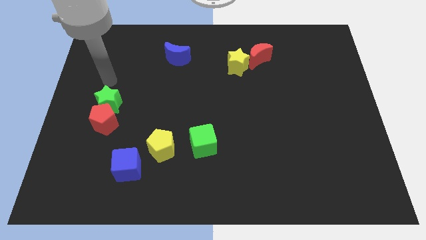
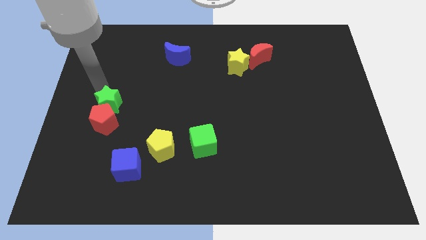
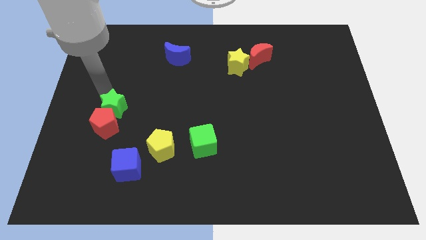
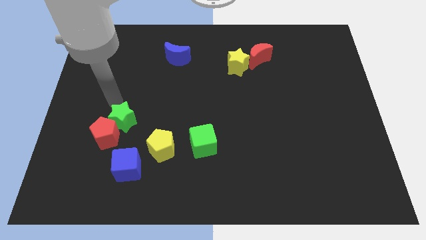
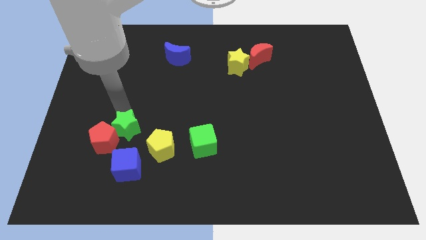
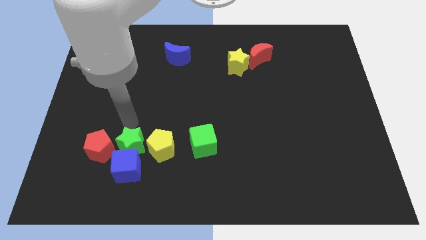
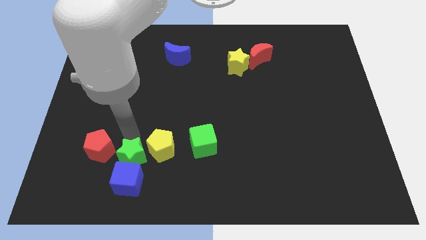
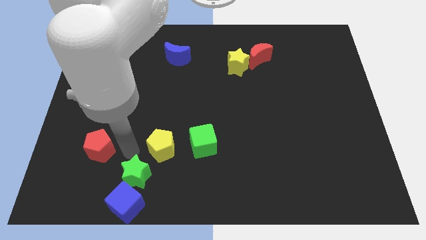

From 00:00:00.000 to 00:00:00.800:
move the red pentagon away from the green star

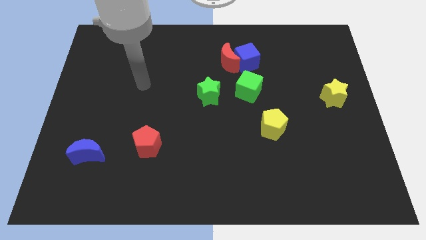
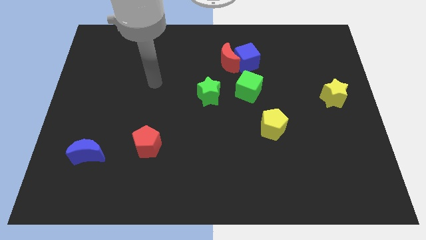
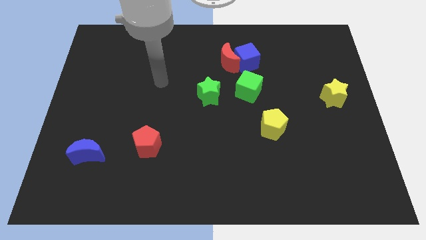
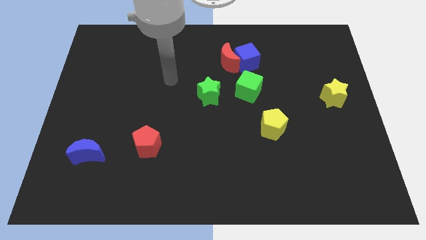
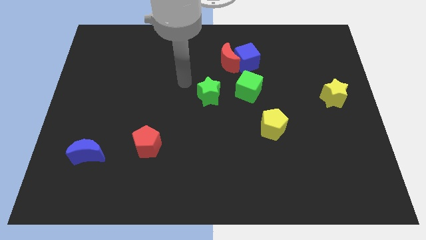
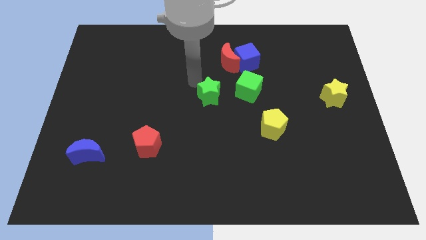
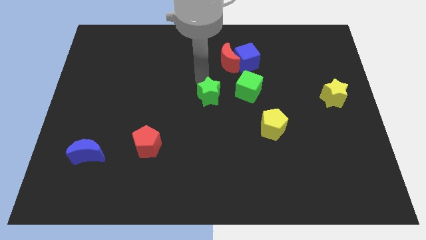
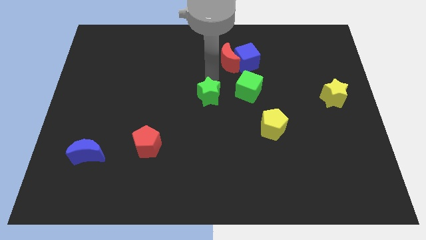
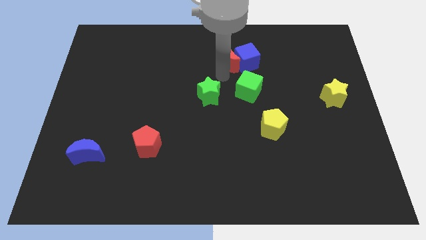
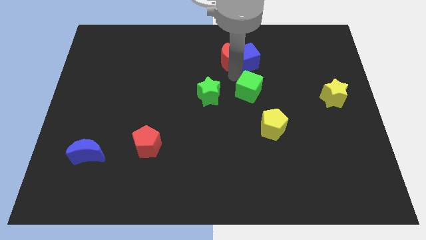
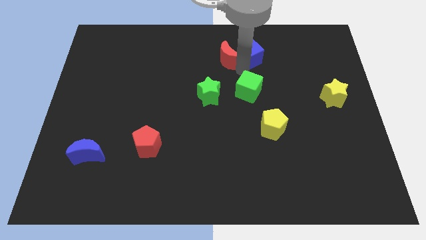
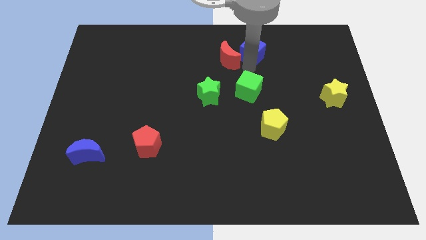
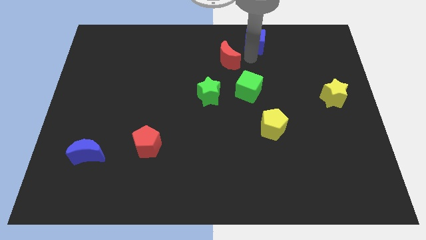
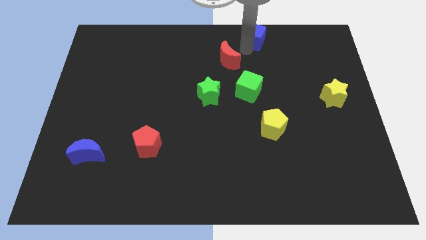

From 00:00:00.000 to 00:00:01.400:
pull the red moon apart from the blue cube

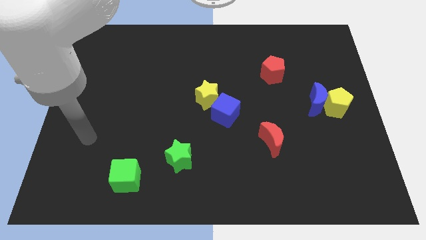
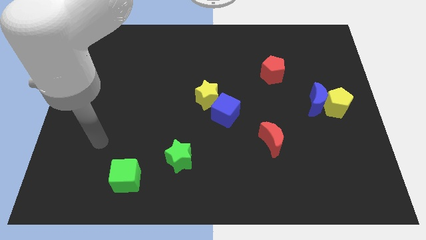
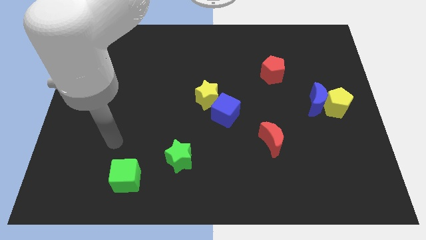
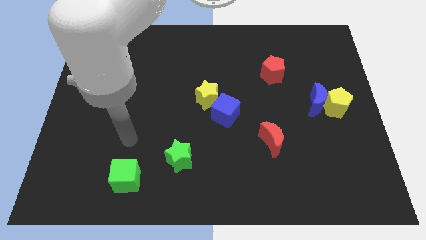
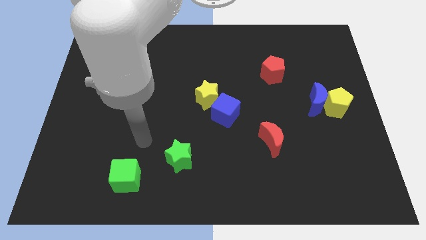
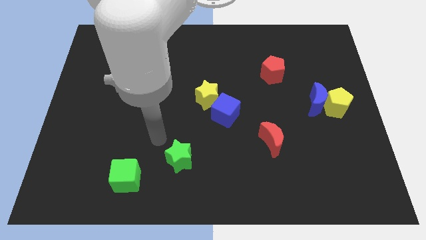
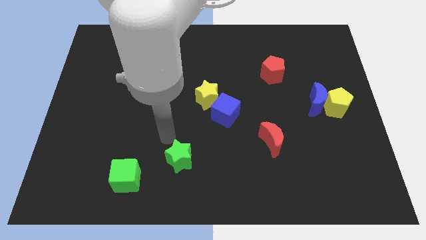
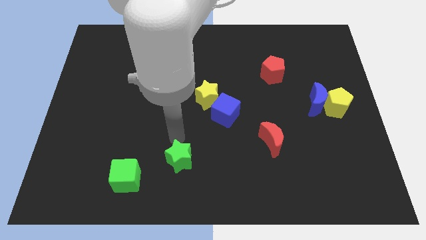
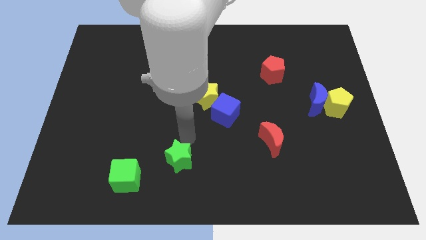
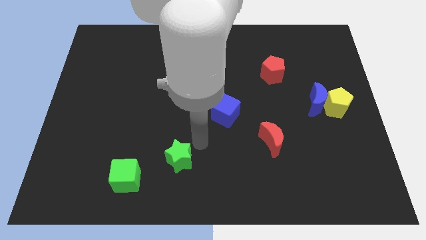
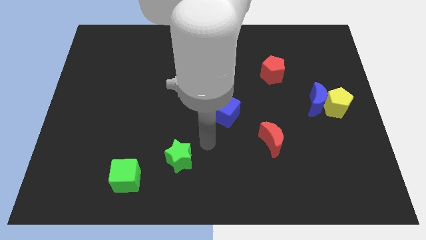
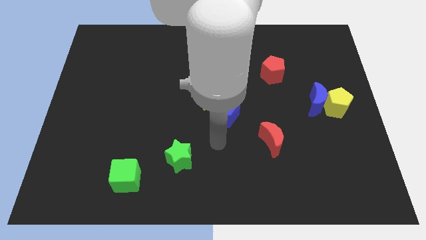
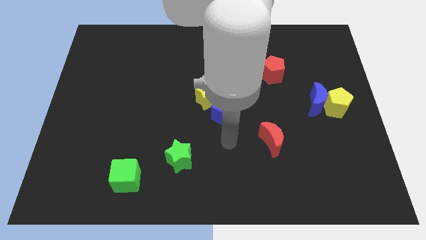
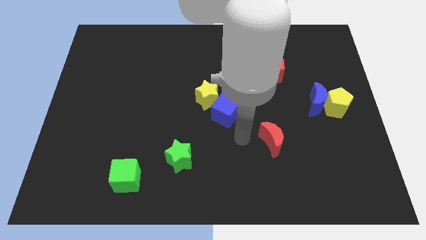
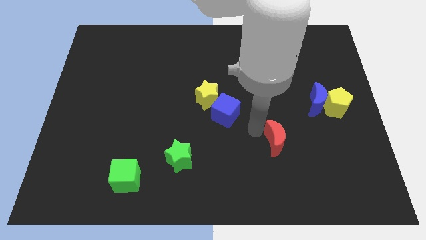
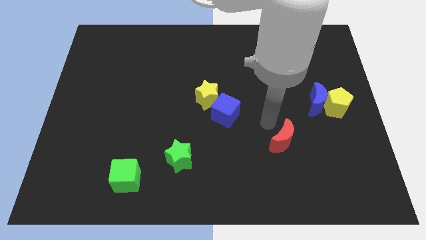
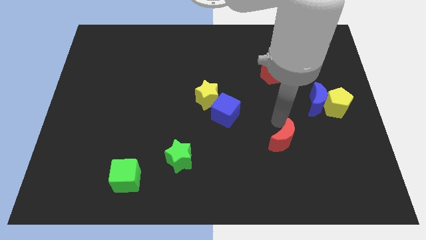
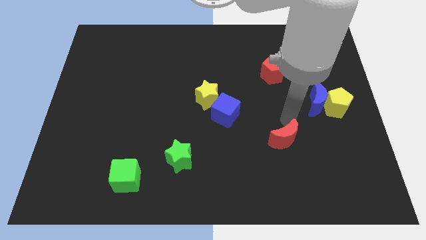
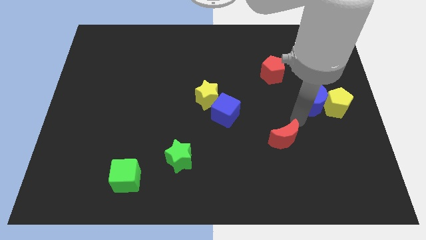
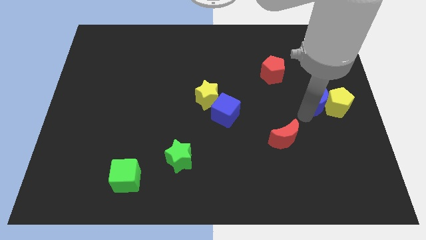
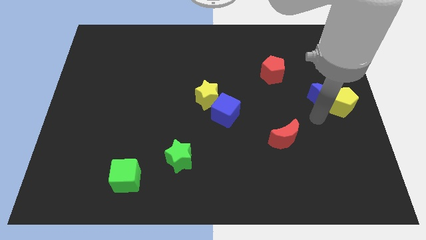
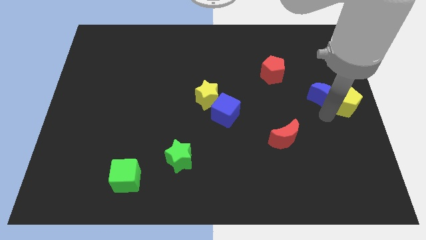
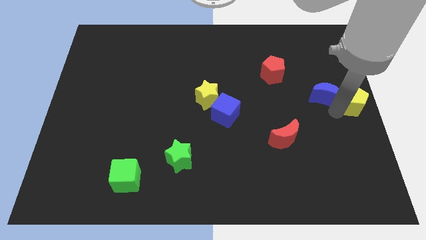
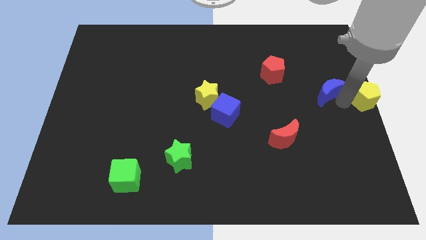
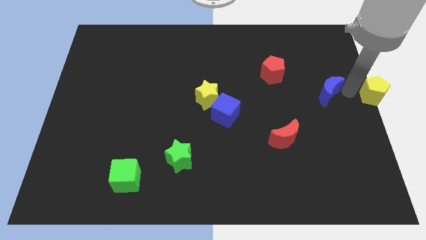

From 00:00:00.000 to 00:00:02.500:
pull the blue moon apart from the yellow pentagon

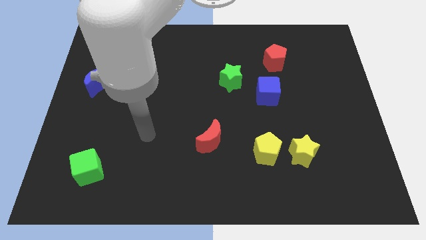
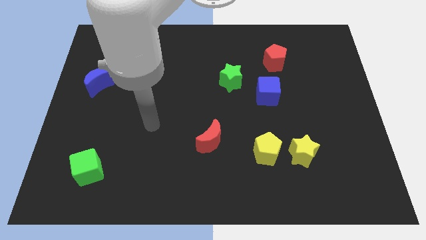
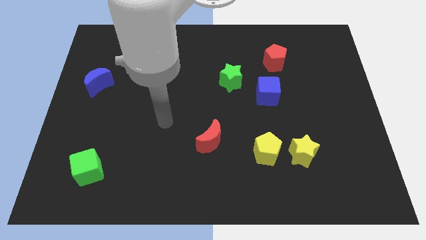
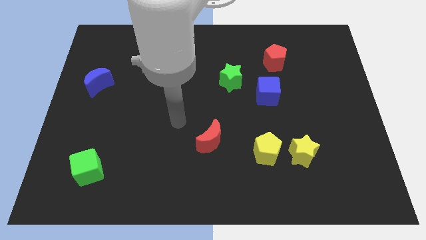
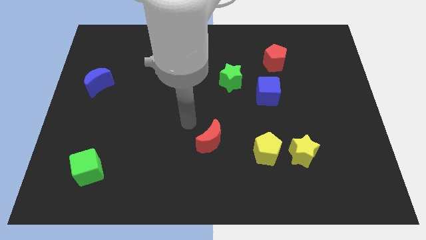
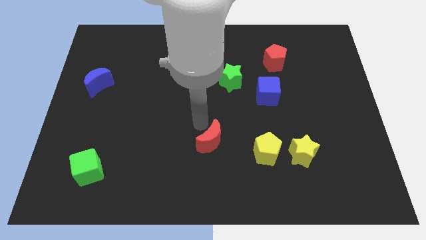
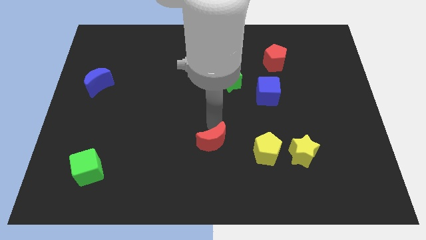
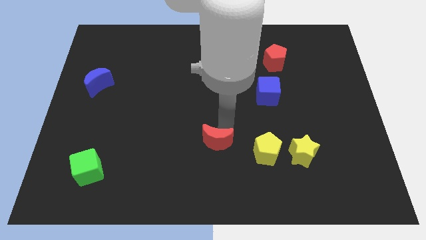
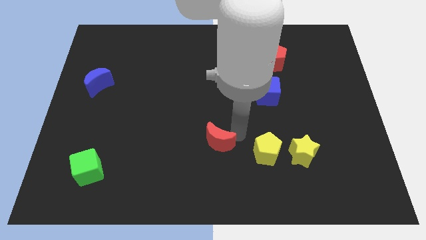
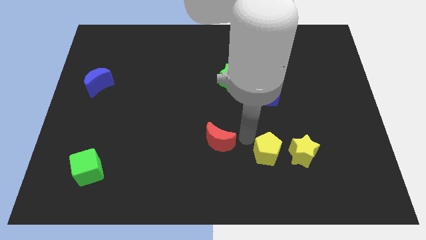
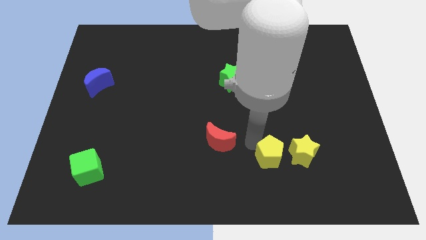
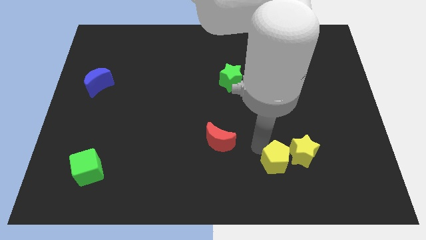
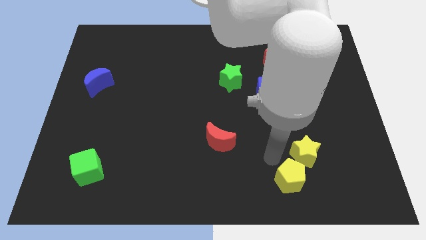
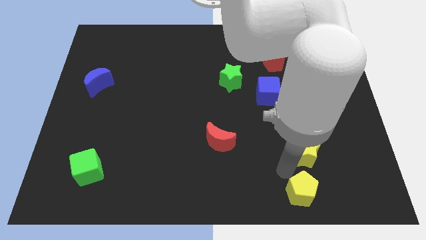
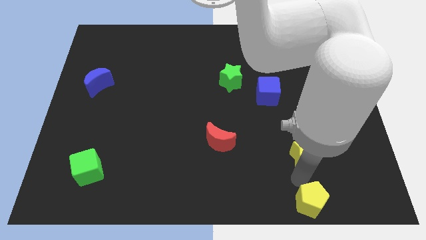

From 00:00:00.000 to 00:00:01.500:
move the yellow star away from the yellow pentagon

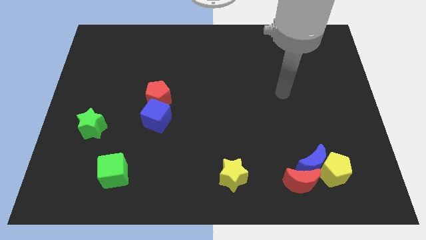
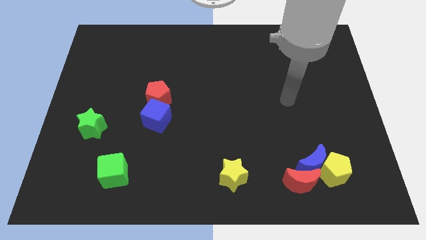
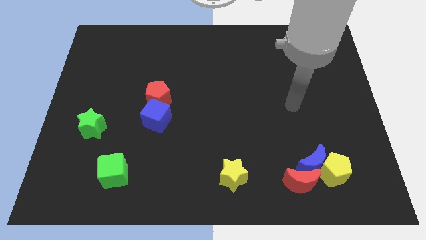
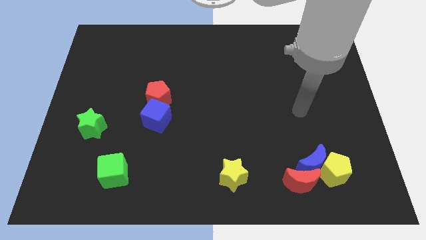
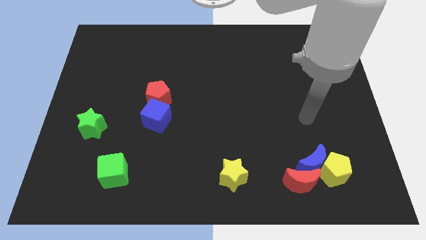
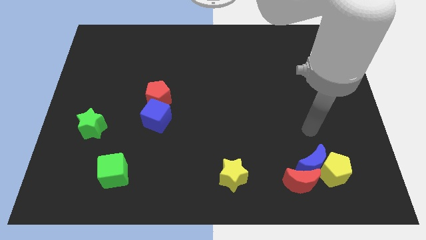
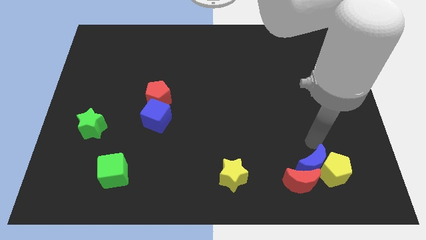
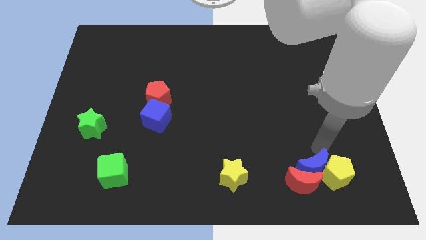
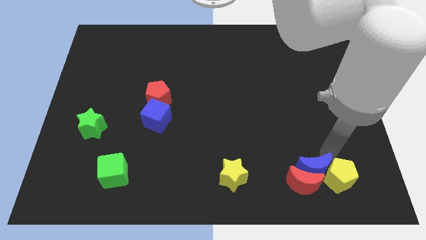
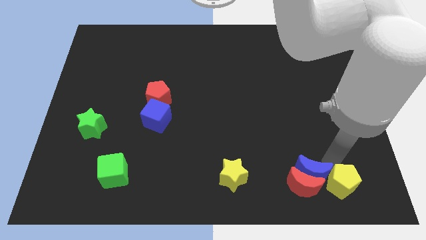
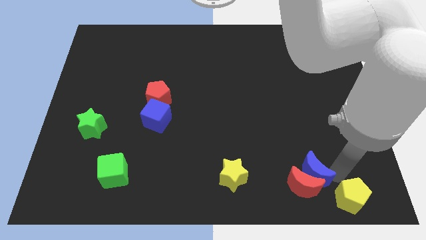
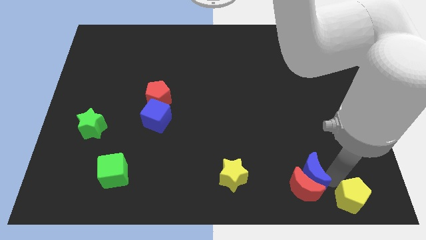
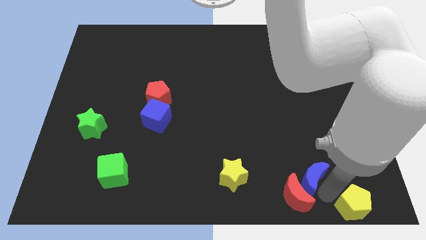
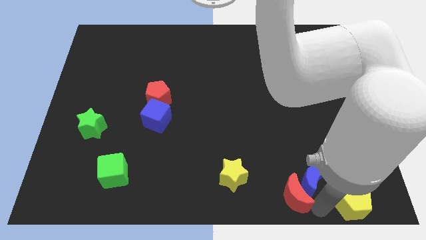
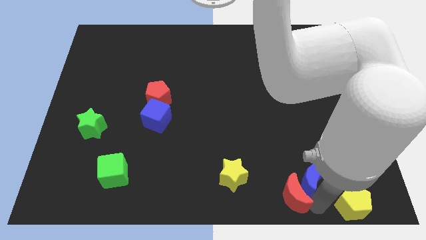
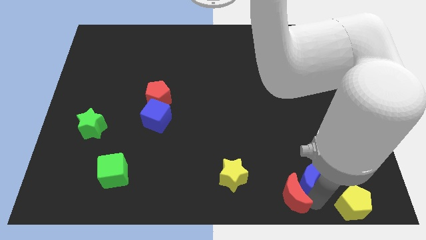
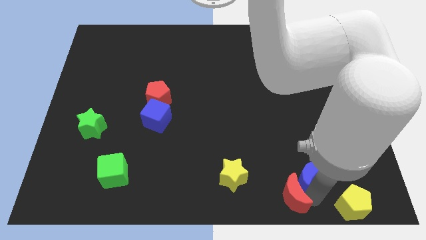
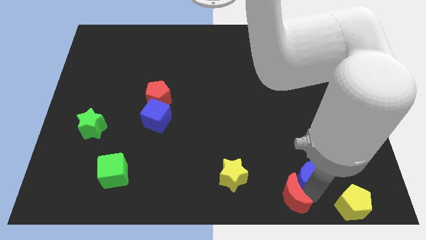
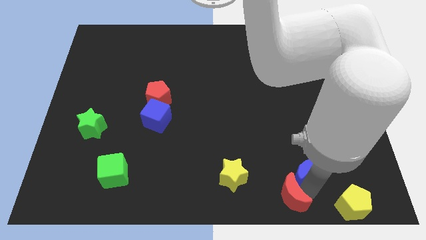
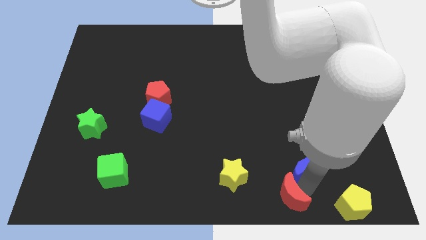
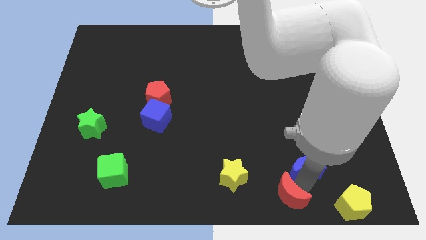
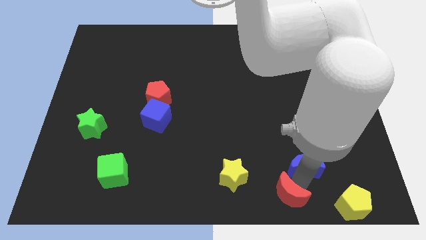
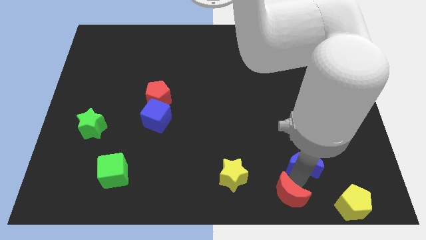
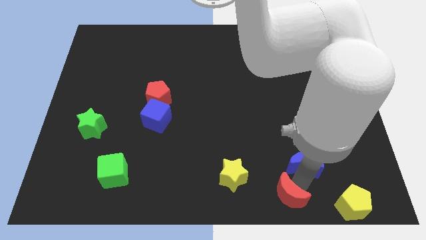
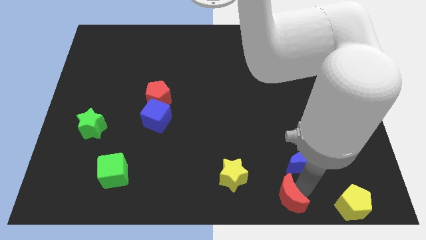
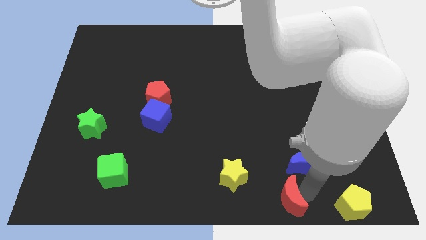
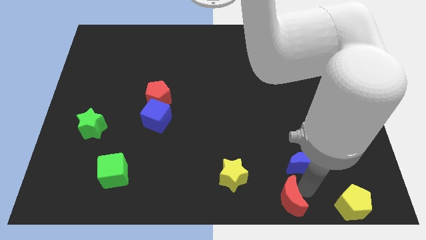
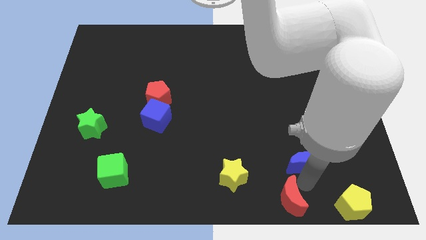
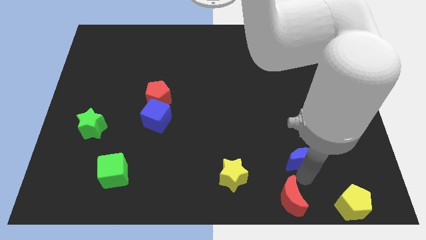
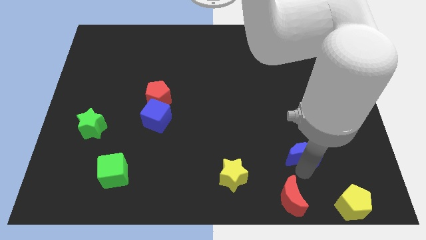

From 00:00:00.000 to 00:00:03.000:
separate the blue moon from the yellow pentagon and red moon

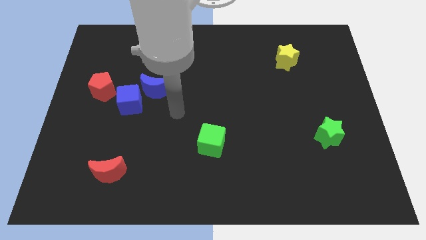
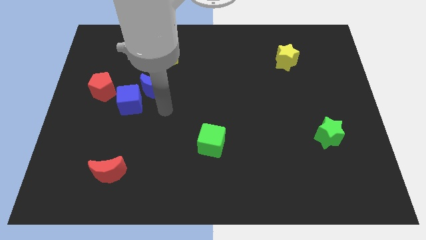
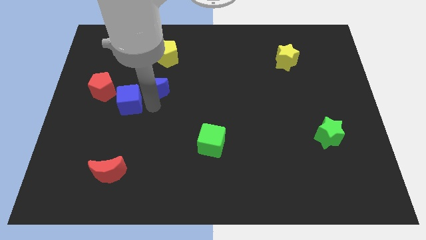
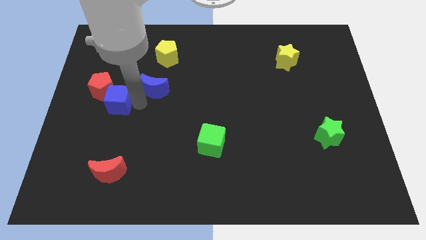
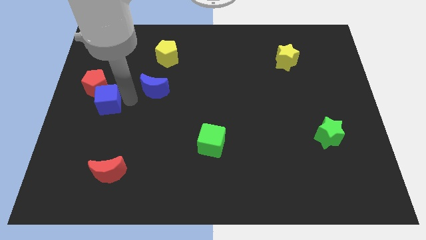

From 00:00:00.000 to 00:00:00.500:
separate the blue moon from the blue cube
